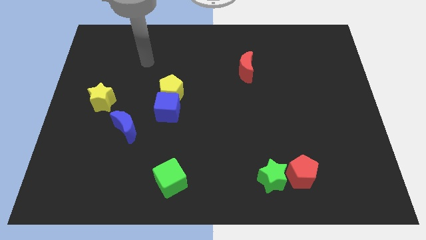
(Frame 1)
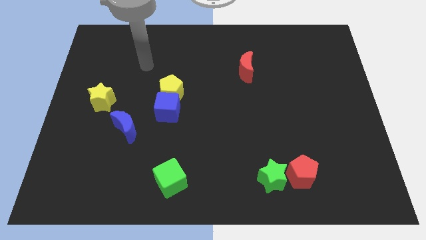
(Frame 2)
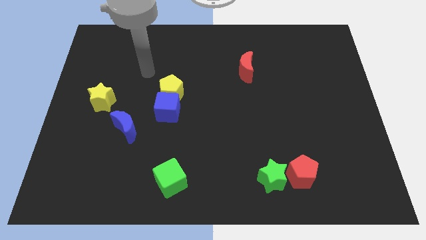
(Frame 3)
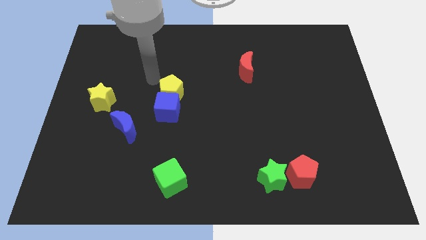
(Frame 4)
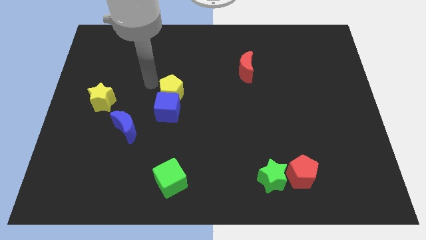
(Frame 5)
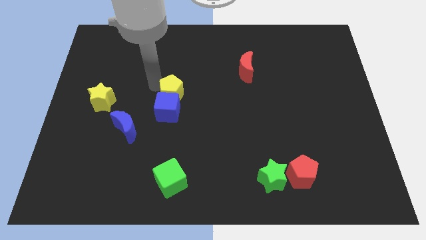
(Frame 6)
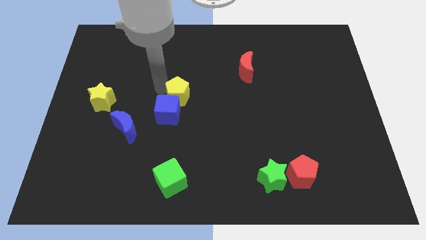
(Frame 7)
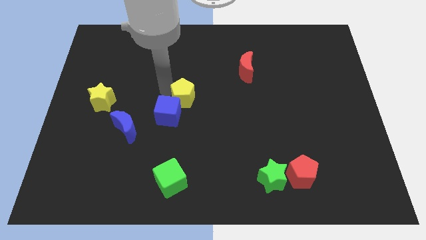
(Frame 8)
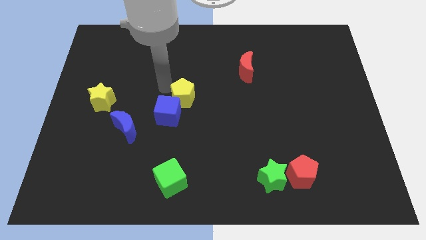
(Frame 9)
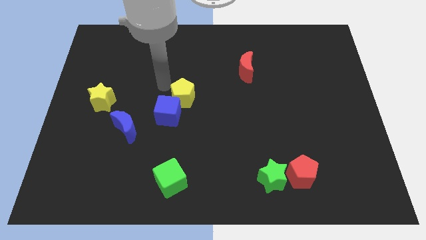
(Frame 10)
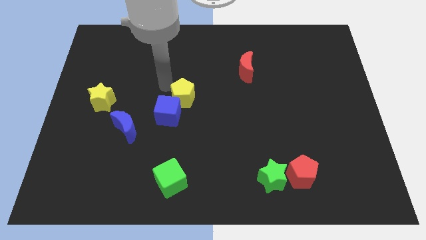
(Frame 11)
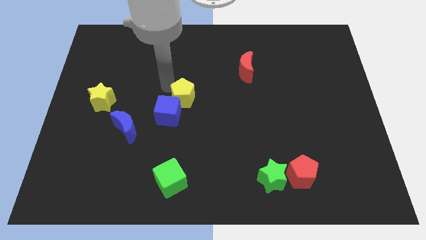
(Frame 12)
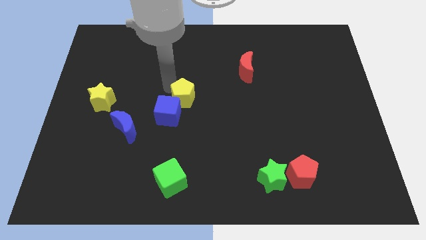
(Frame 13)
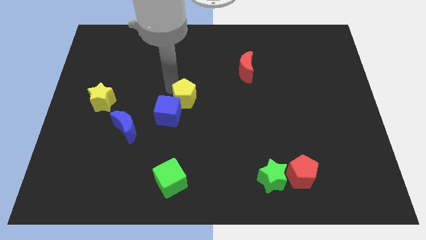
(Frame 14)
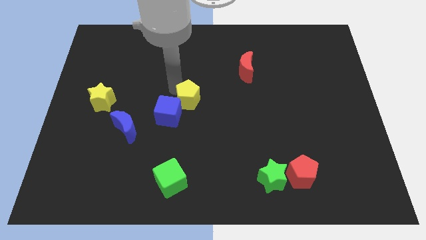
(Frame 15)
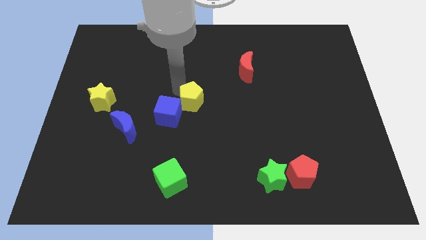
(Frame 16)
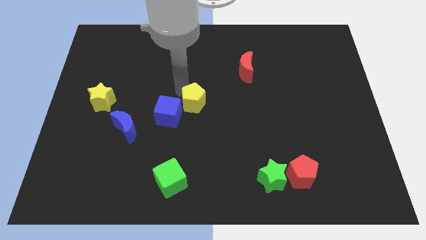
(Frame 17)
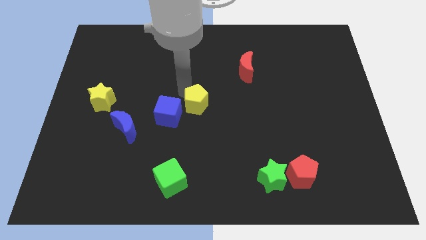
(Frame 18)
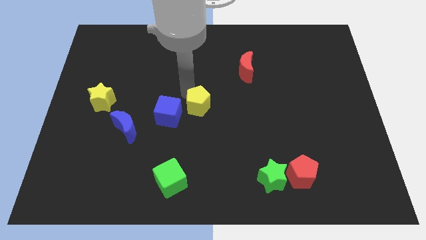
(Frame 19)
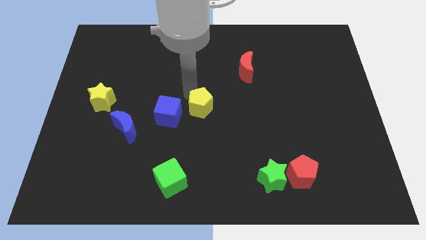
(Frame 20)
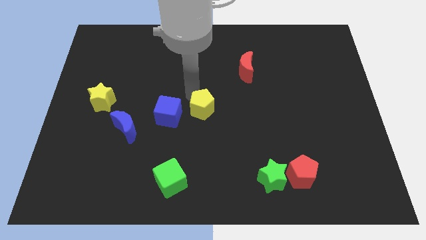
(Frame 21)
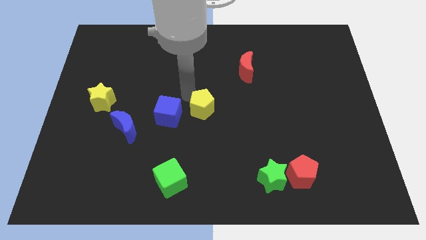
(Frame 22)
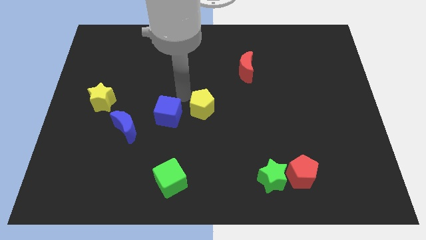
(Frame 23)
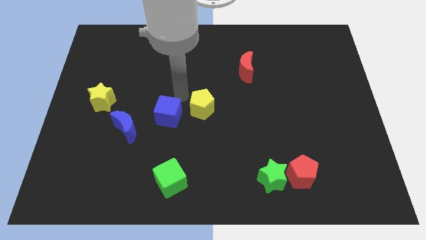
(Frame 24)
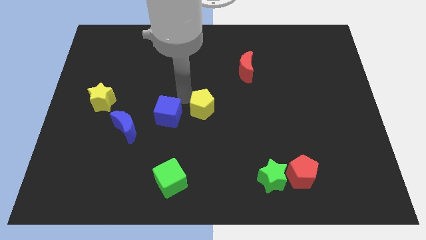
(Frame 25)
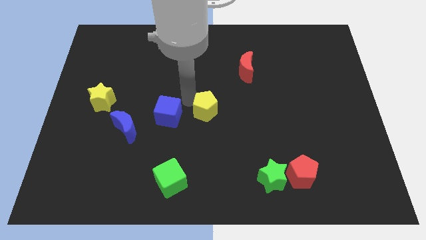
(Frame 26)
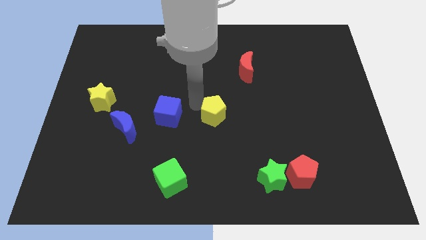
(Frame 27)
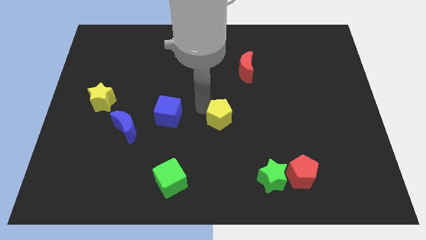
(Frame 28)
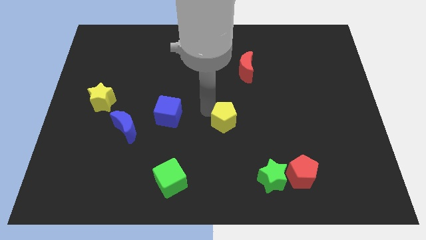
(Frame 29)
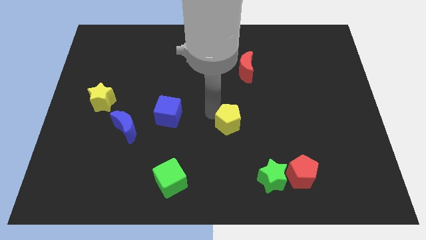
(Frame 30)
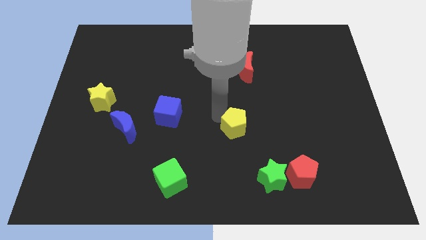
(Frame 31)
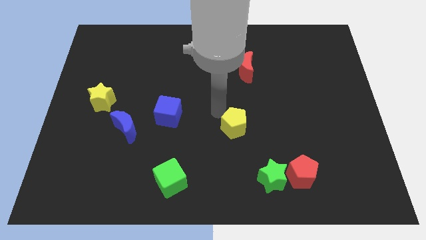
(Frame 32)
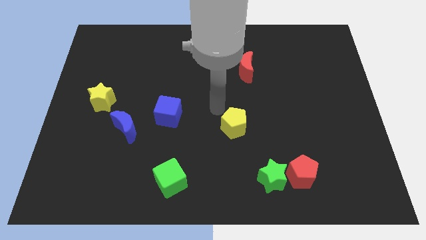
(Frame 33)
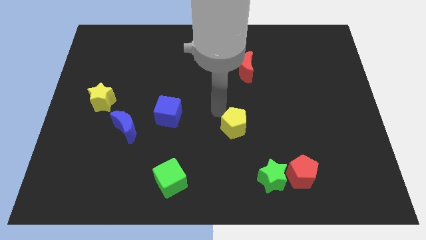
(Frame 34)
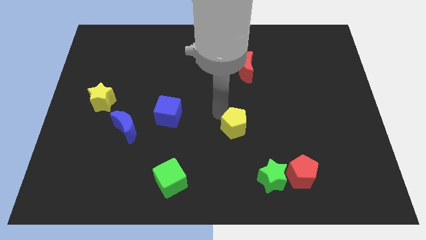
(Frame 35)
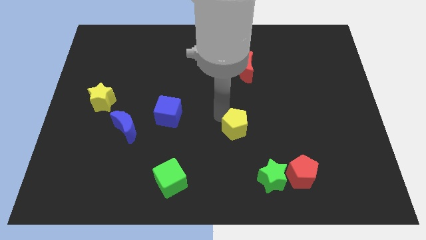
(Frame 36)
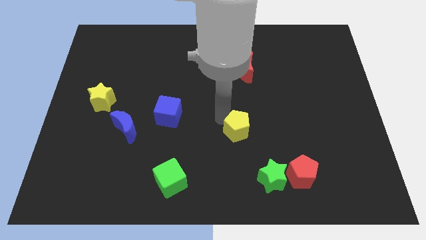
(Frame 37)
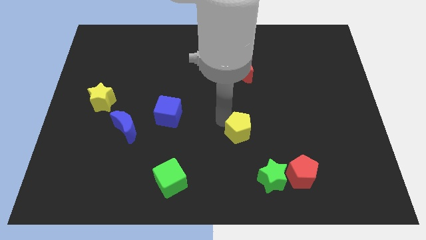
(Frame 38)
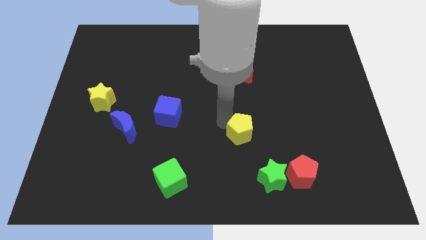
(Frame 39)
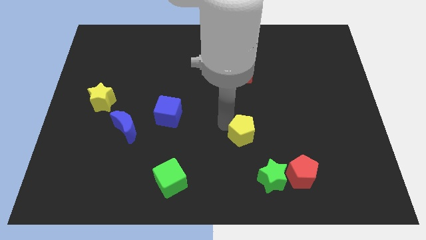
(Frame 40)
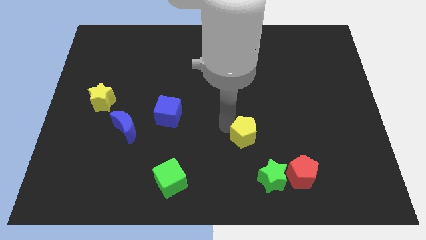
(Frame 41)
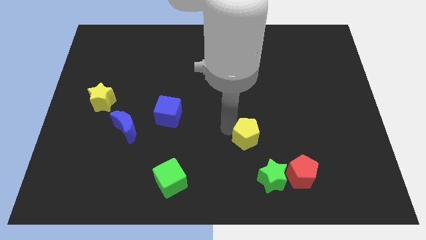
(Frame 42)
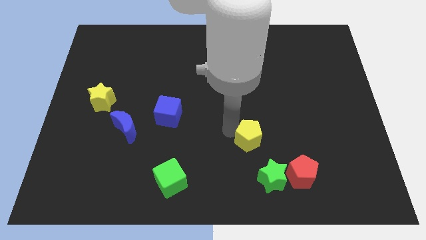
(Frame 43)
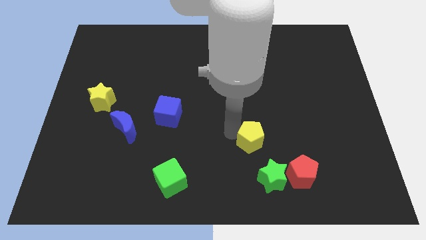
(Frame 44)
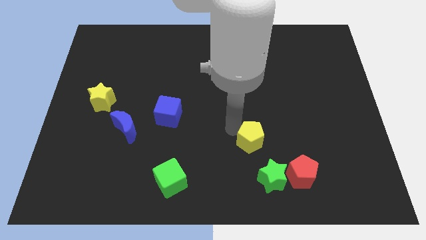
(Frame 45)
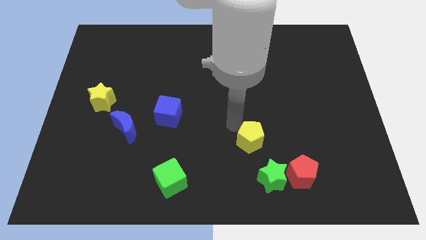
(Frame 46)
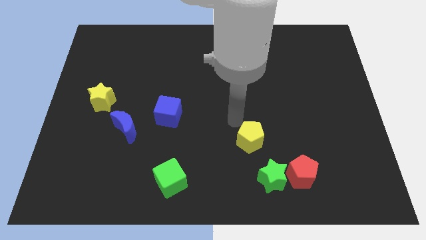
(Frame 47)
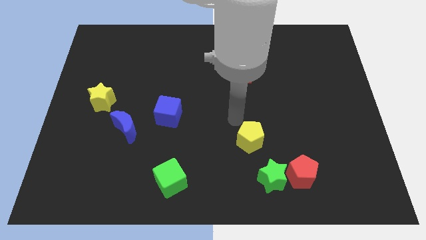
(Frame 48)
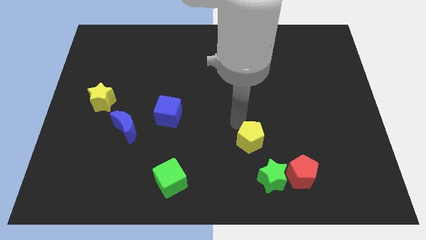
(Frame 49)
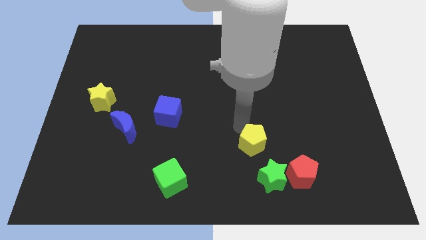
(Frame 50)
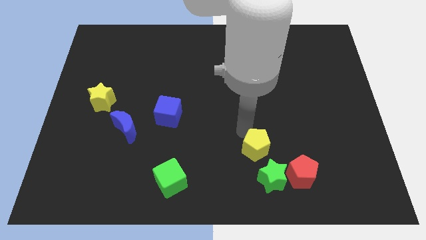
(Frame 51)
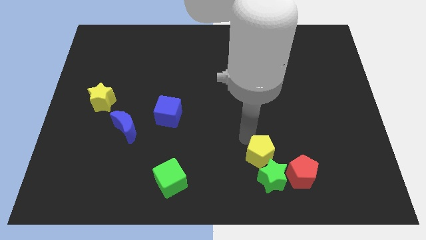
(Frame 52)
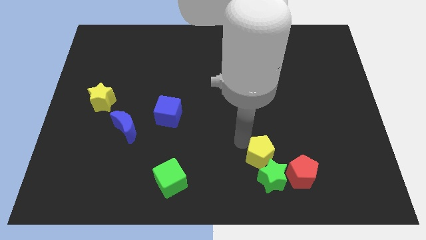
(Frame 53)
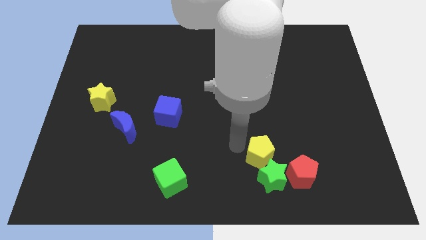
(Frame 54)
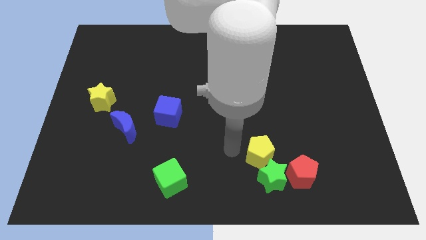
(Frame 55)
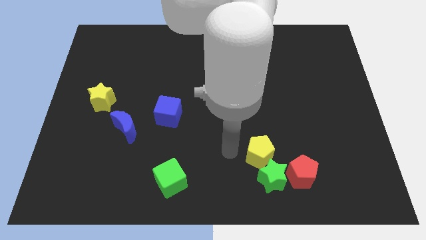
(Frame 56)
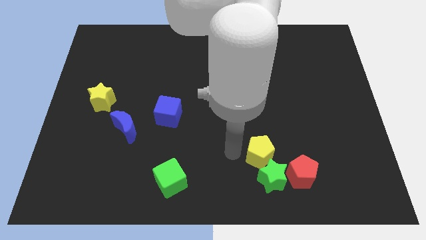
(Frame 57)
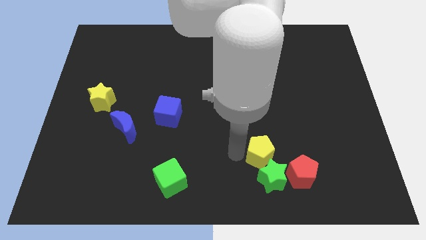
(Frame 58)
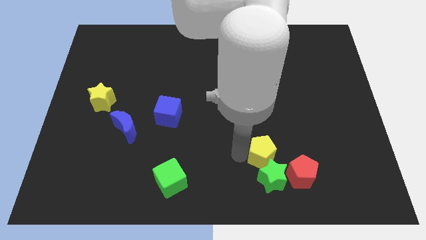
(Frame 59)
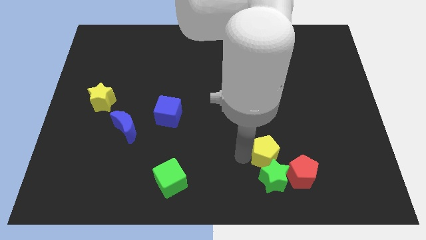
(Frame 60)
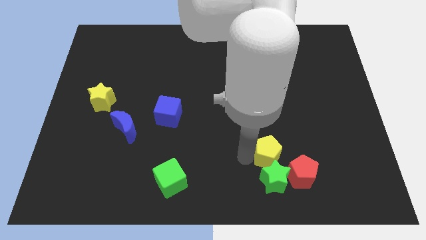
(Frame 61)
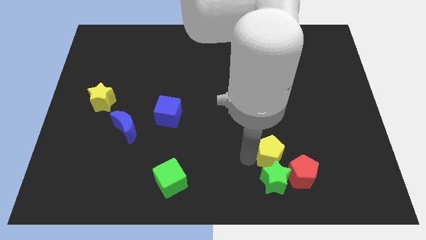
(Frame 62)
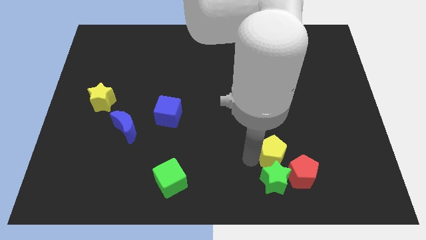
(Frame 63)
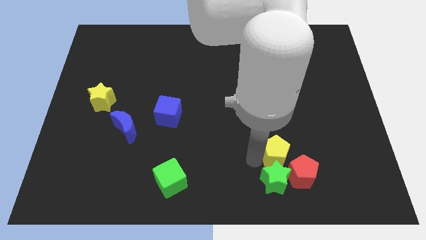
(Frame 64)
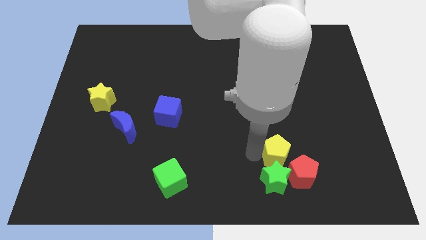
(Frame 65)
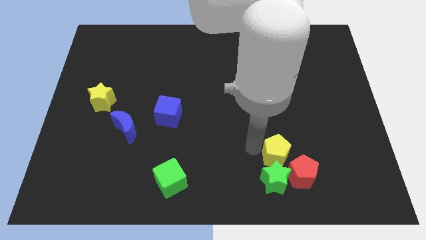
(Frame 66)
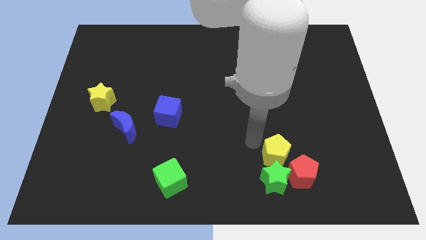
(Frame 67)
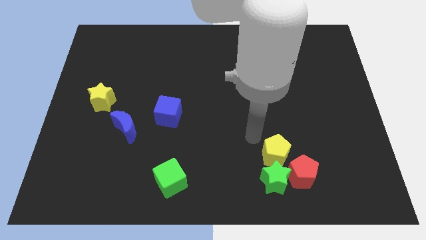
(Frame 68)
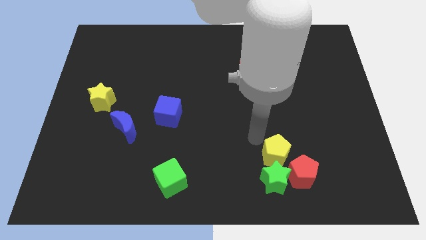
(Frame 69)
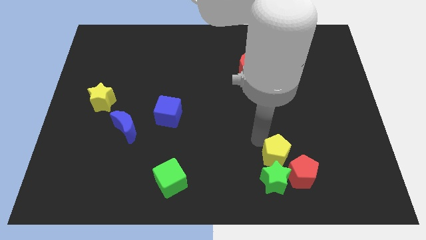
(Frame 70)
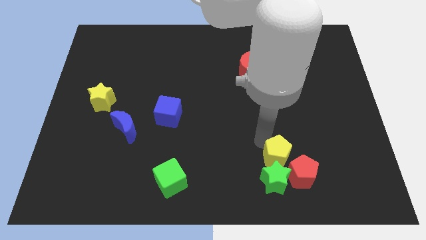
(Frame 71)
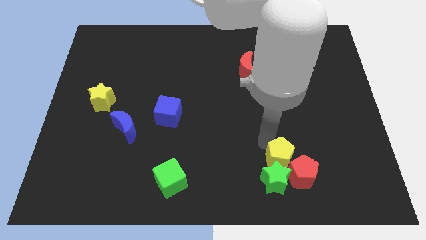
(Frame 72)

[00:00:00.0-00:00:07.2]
push the yellow pentagon close to the red pentagon

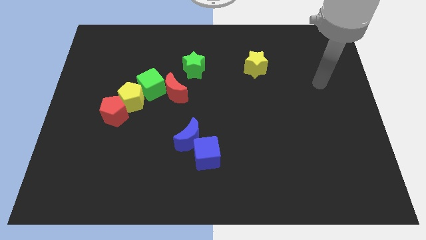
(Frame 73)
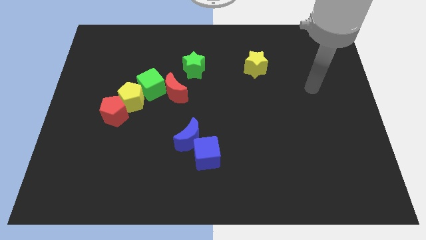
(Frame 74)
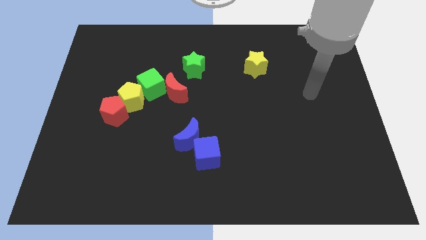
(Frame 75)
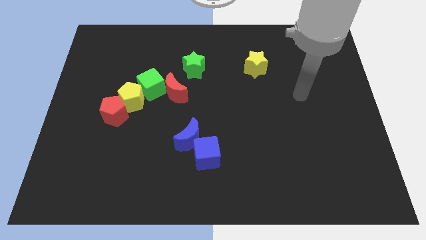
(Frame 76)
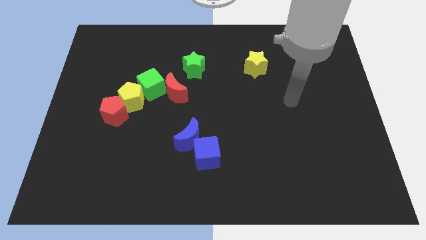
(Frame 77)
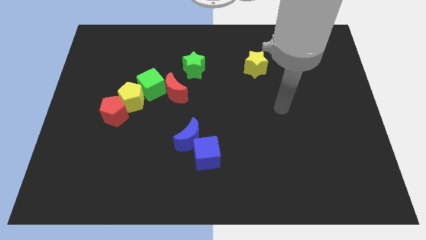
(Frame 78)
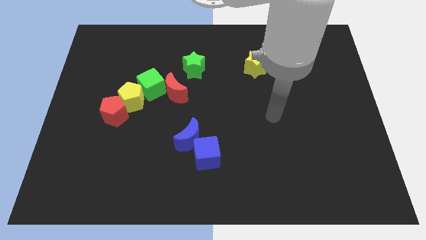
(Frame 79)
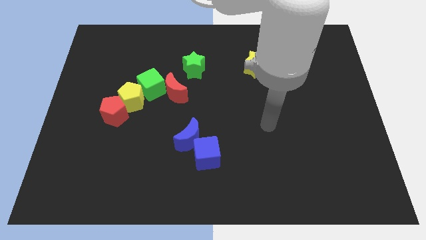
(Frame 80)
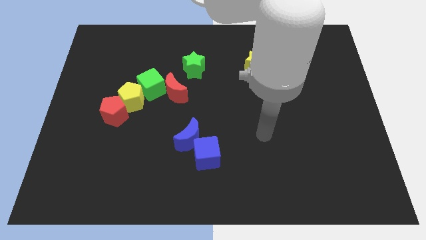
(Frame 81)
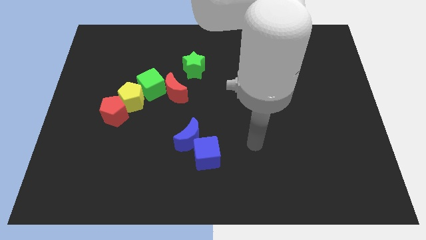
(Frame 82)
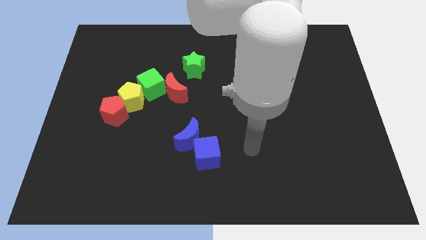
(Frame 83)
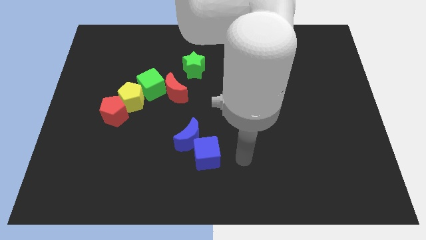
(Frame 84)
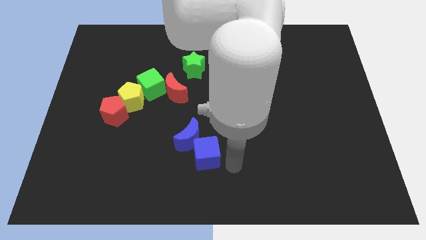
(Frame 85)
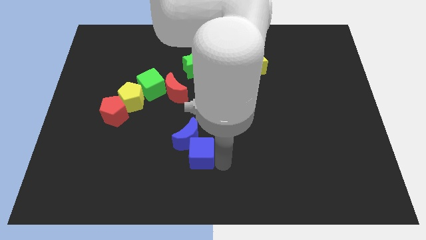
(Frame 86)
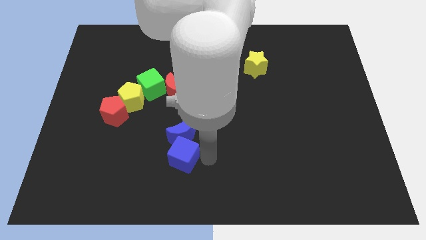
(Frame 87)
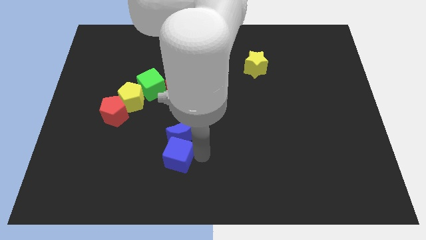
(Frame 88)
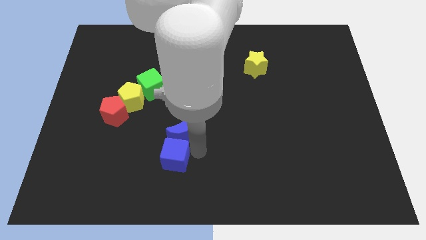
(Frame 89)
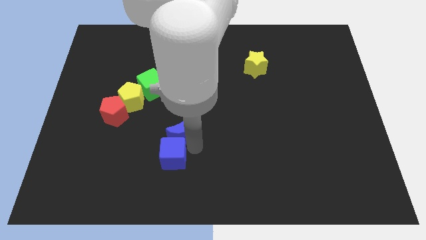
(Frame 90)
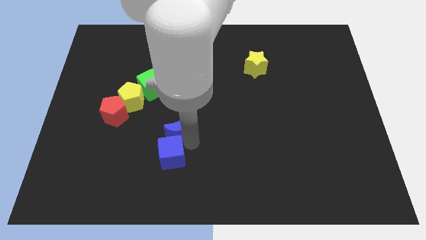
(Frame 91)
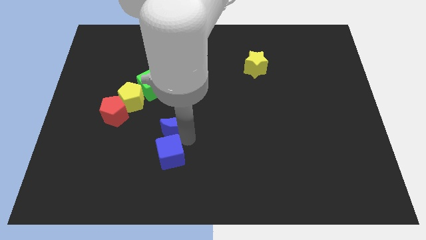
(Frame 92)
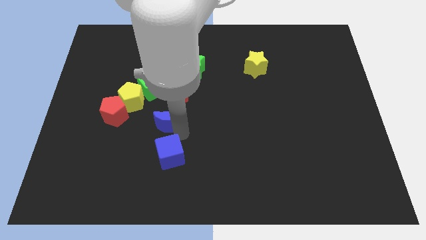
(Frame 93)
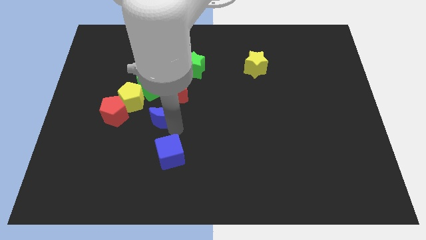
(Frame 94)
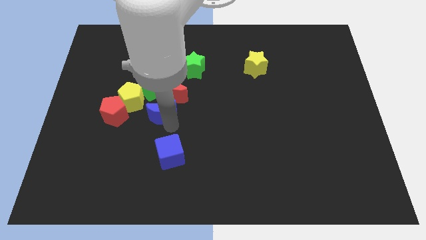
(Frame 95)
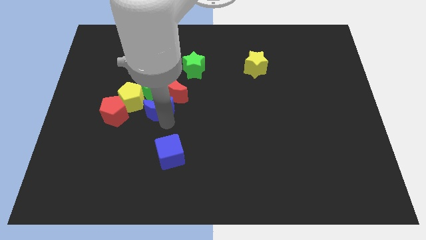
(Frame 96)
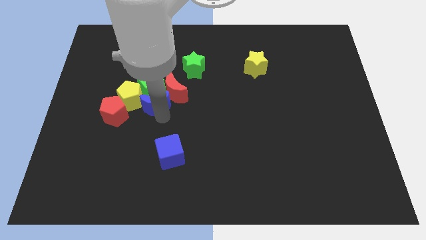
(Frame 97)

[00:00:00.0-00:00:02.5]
push the blue moon close to the green cube
